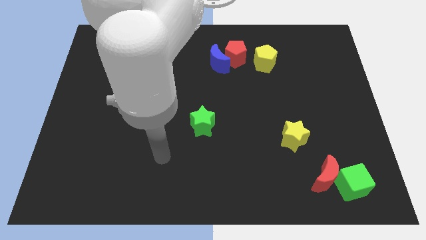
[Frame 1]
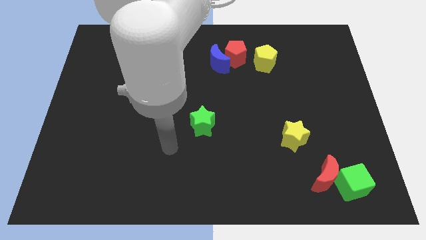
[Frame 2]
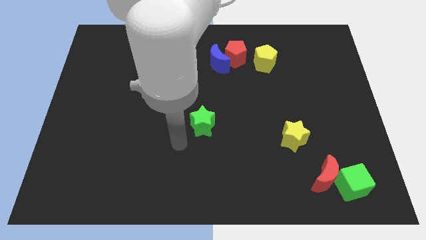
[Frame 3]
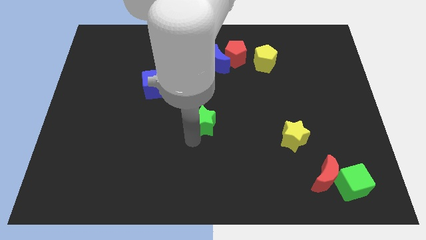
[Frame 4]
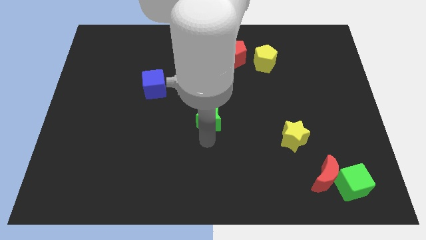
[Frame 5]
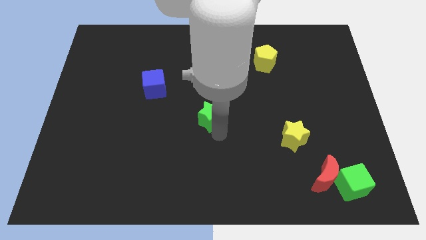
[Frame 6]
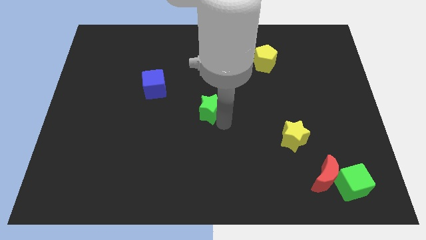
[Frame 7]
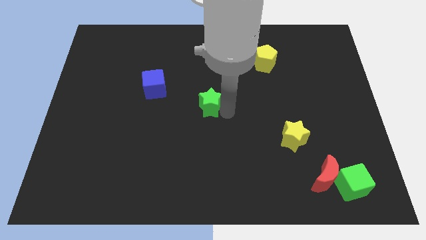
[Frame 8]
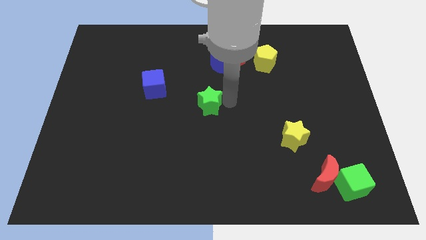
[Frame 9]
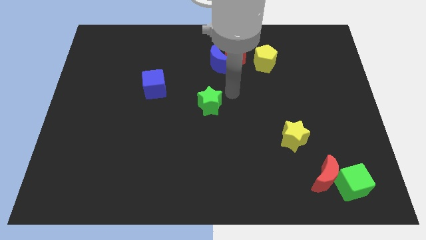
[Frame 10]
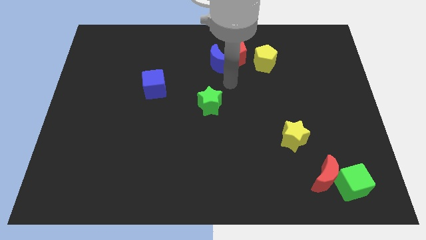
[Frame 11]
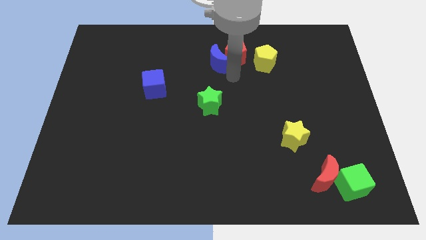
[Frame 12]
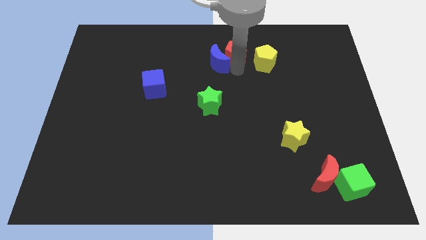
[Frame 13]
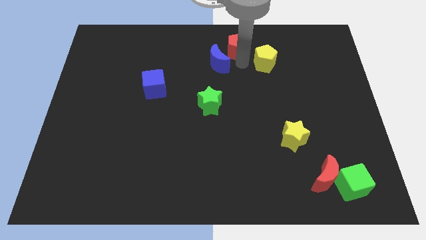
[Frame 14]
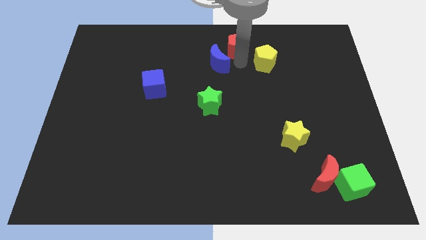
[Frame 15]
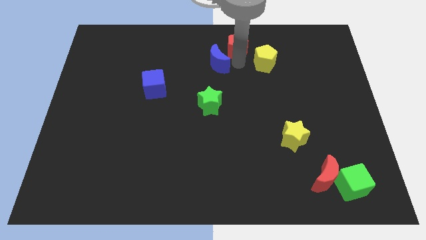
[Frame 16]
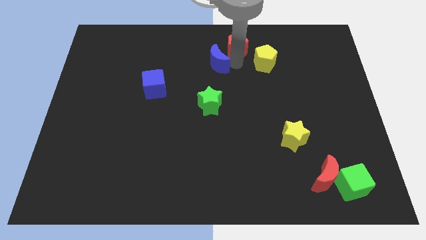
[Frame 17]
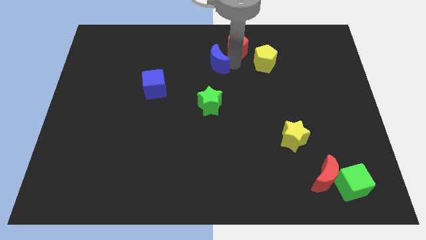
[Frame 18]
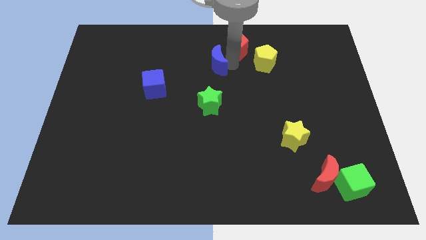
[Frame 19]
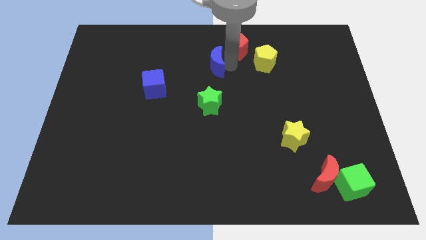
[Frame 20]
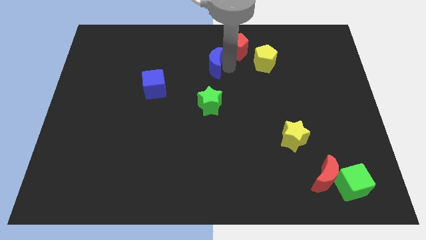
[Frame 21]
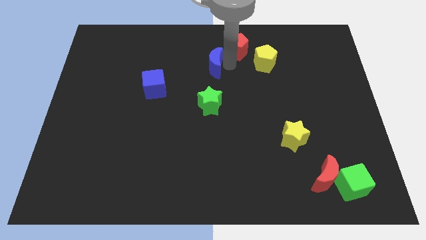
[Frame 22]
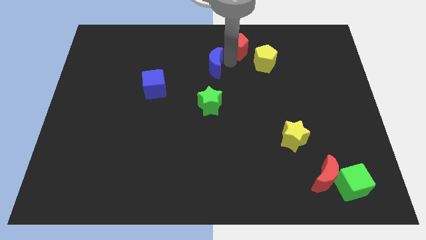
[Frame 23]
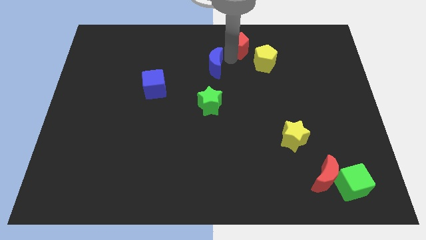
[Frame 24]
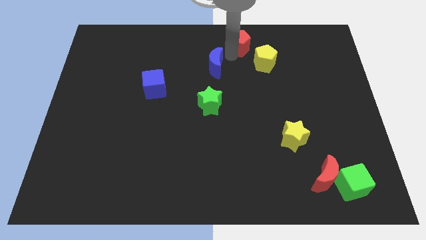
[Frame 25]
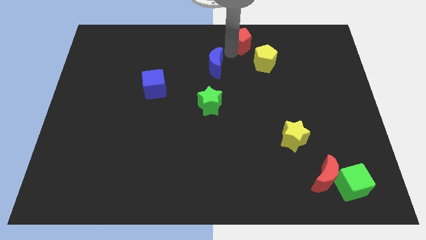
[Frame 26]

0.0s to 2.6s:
pull the blue moon apart from the red pentagon

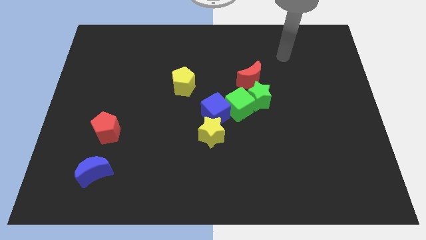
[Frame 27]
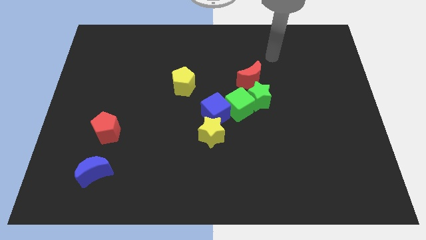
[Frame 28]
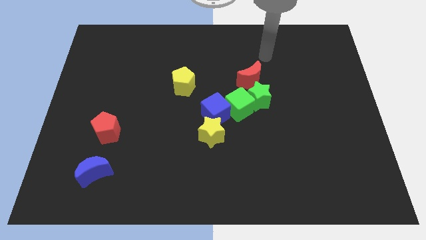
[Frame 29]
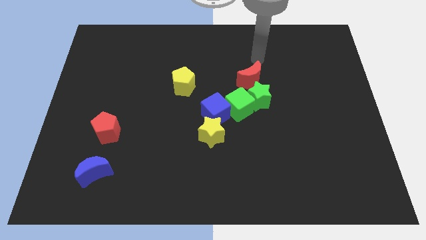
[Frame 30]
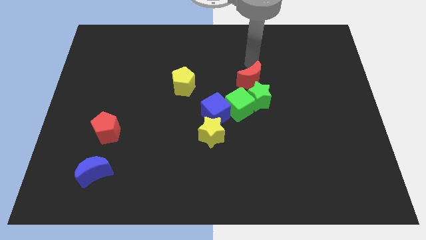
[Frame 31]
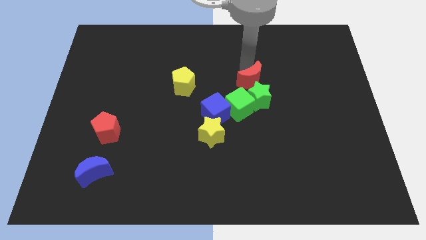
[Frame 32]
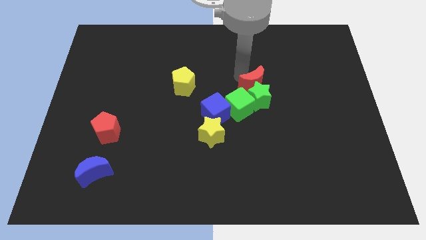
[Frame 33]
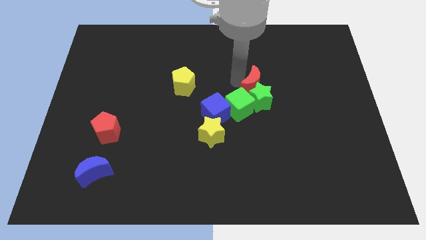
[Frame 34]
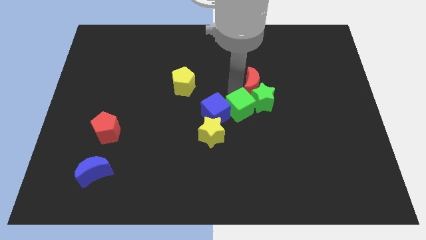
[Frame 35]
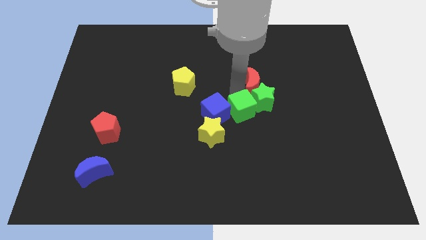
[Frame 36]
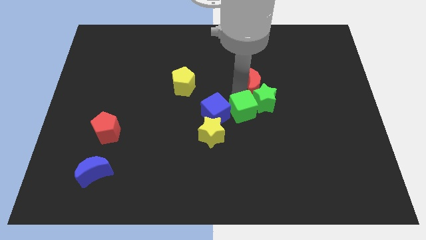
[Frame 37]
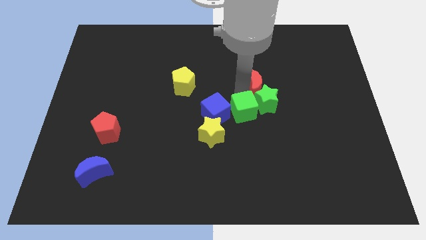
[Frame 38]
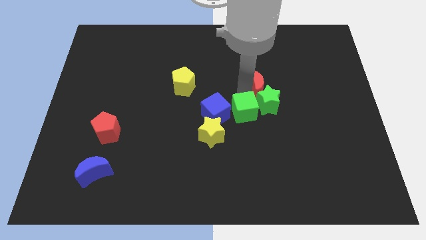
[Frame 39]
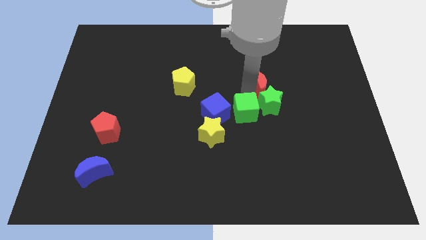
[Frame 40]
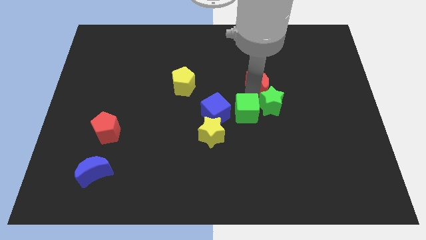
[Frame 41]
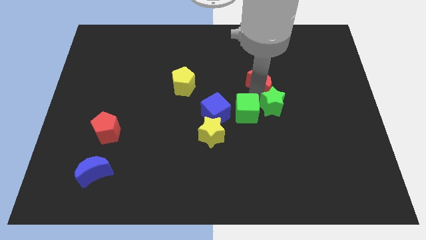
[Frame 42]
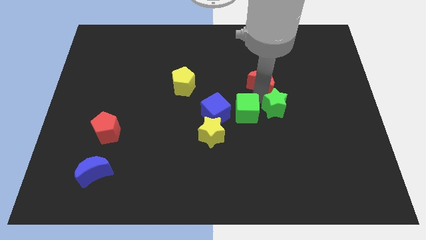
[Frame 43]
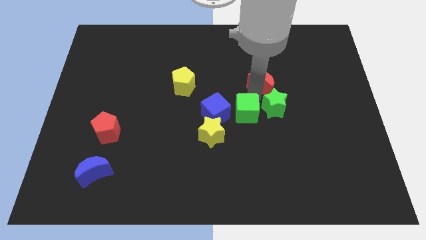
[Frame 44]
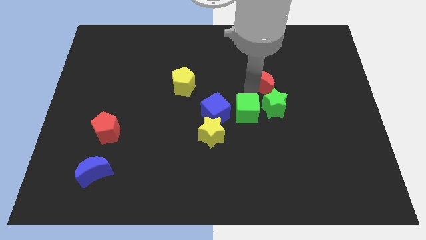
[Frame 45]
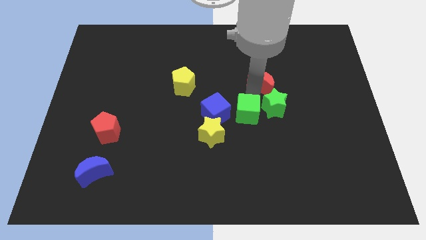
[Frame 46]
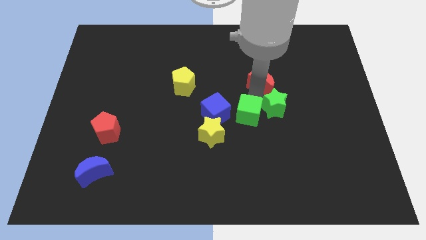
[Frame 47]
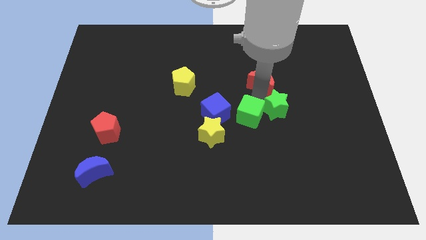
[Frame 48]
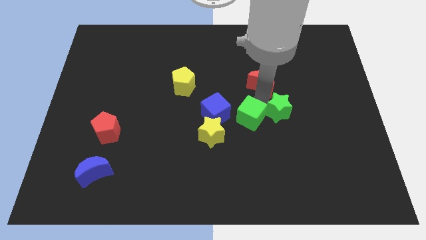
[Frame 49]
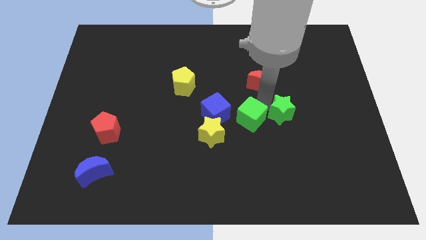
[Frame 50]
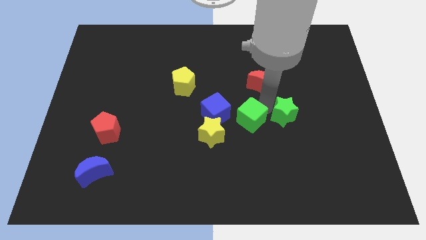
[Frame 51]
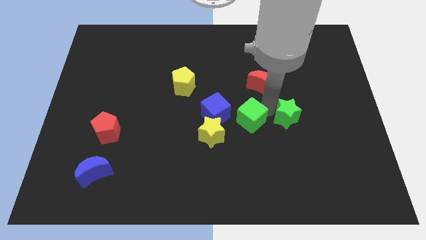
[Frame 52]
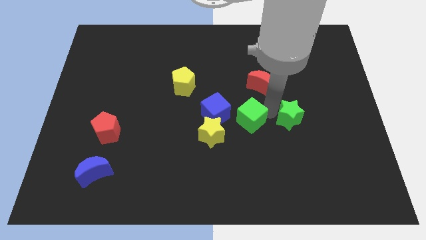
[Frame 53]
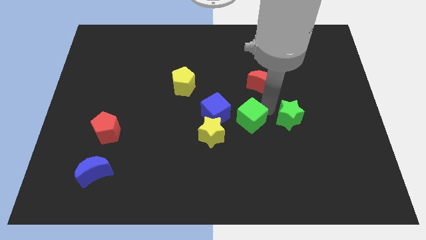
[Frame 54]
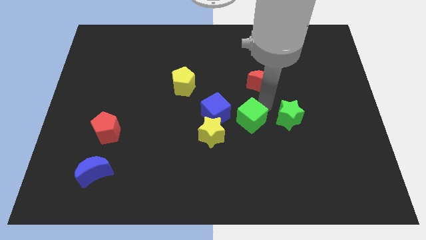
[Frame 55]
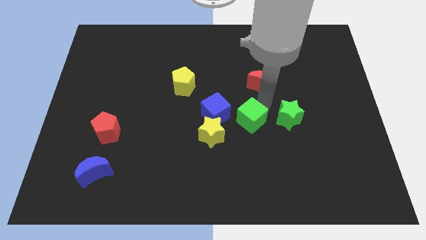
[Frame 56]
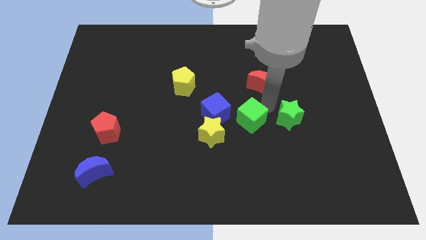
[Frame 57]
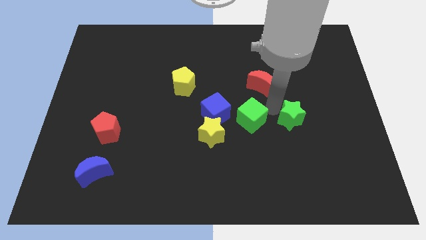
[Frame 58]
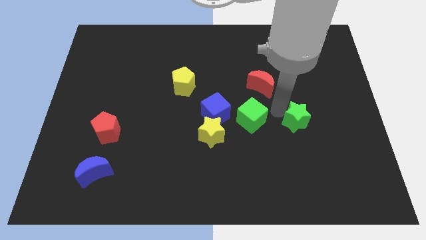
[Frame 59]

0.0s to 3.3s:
move the green star away from the green cube and red moon

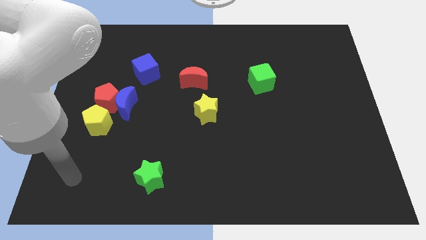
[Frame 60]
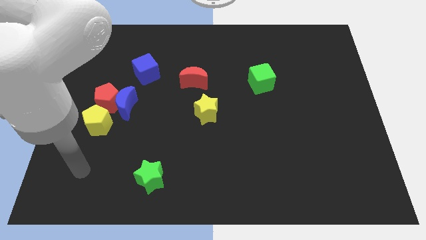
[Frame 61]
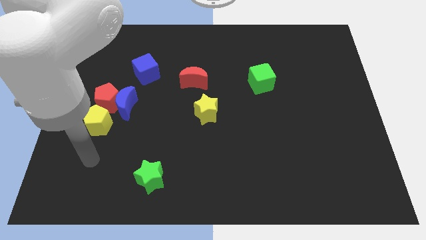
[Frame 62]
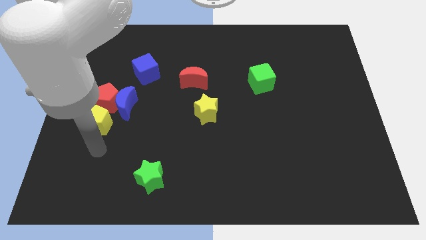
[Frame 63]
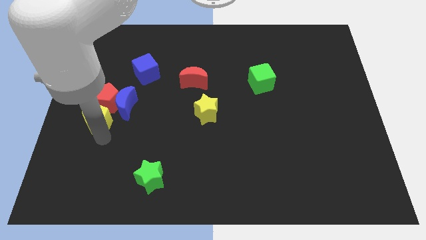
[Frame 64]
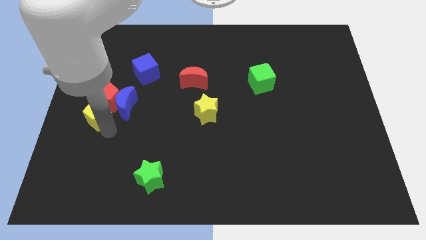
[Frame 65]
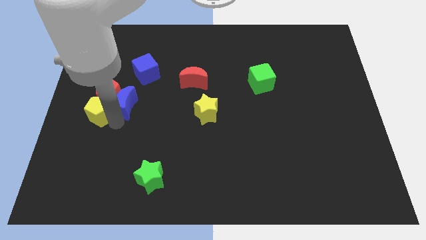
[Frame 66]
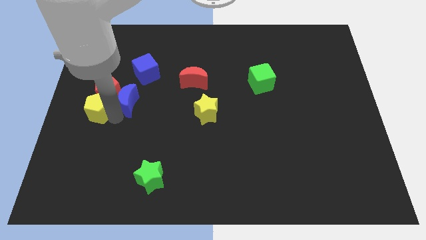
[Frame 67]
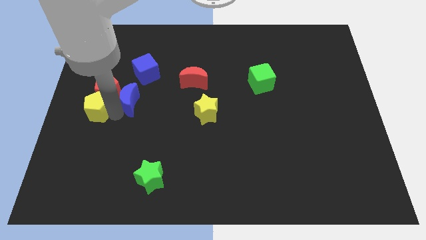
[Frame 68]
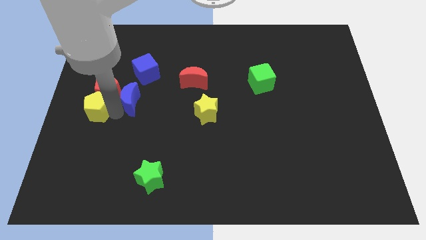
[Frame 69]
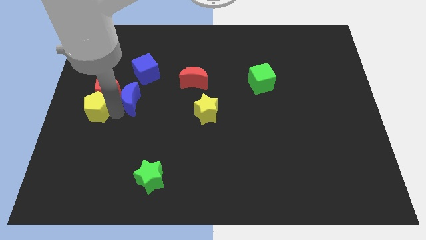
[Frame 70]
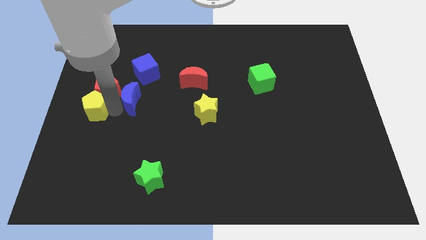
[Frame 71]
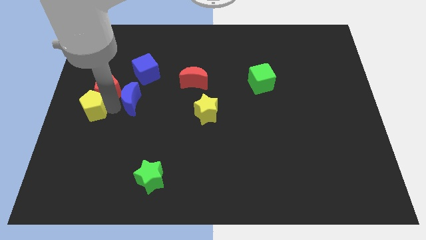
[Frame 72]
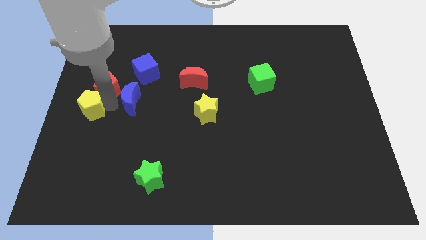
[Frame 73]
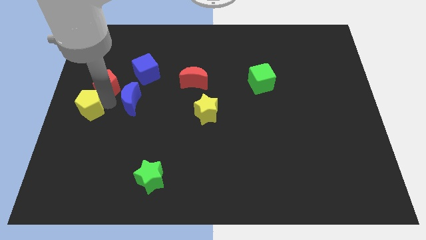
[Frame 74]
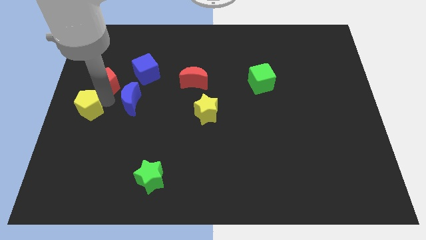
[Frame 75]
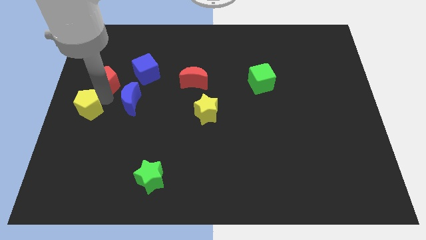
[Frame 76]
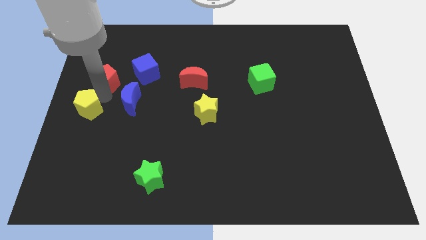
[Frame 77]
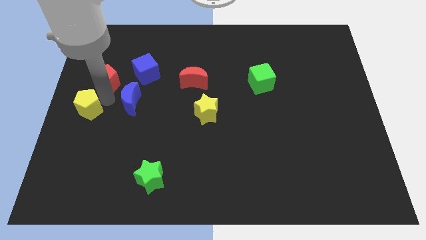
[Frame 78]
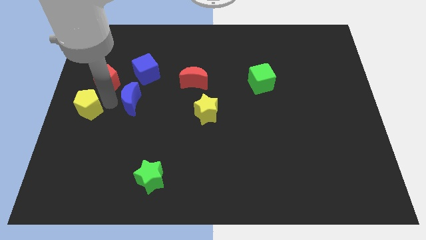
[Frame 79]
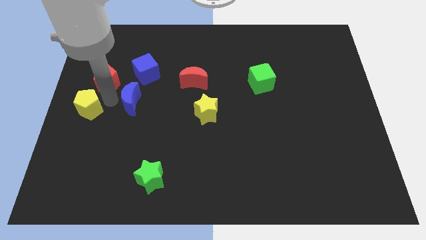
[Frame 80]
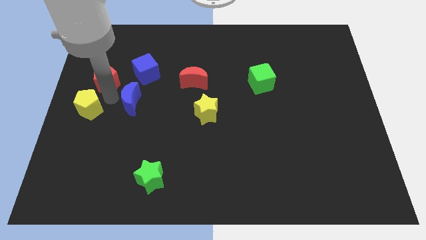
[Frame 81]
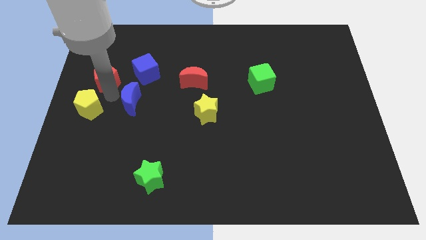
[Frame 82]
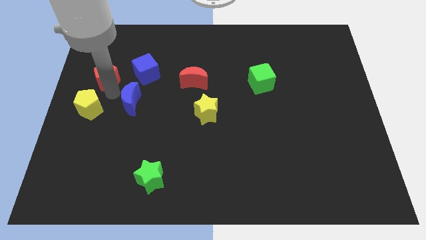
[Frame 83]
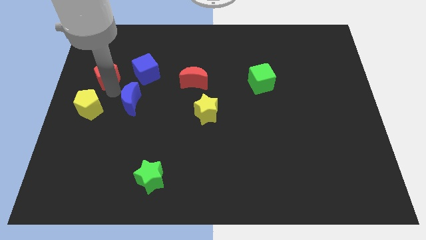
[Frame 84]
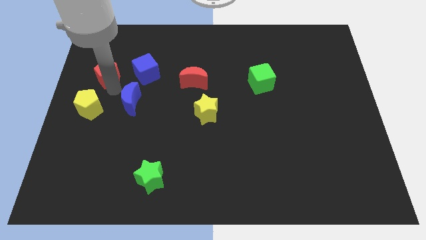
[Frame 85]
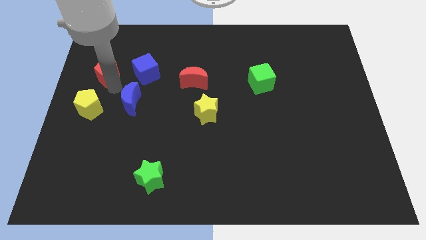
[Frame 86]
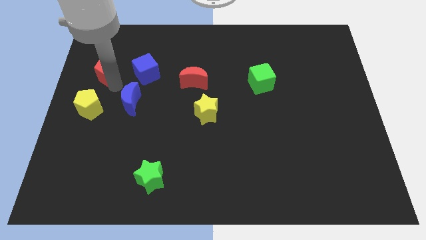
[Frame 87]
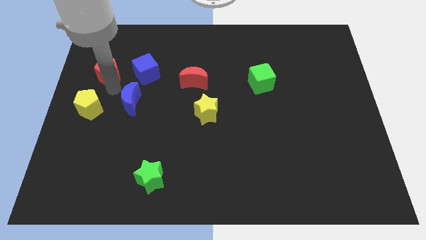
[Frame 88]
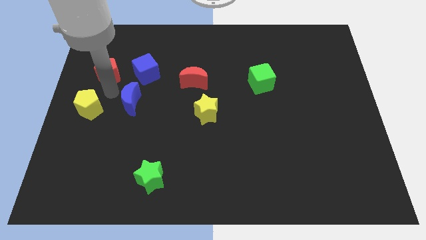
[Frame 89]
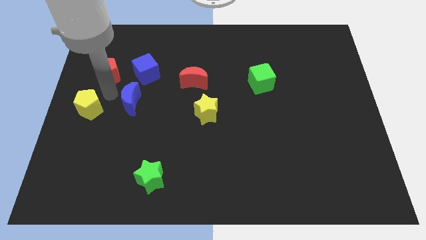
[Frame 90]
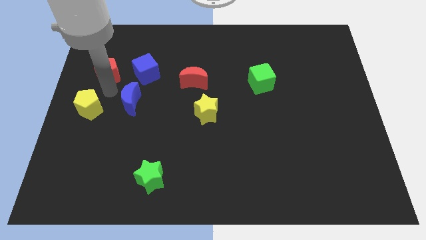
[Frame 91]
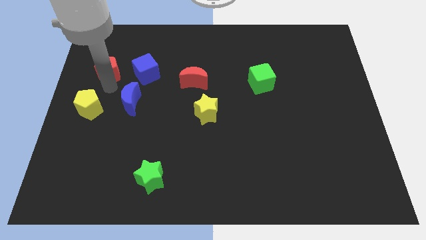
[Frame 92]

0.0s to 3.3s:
separate the red pentagon from the blue moon and yellow pentagon

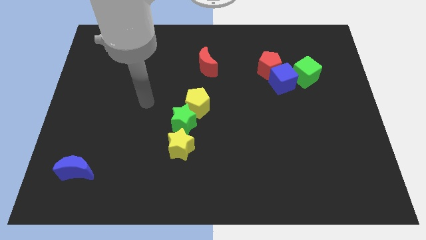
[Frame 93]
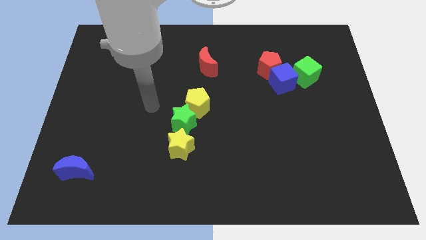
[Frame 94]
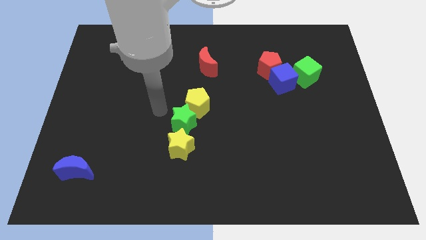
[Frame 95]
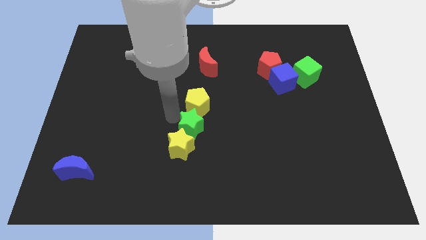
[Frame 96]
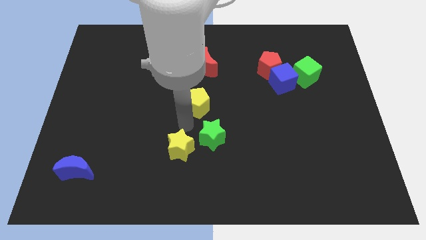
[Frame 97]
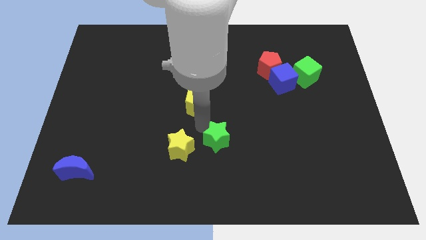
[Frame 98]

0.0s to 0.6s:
move the yellow pentagon away from the green star
